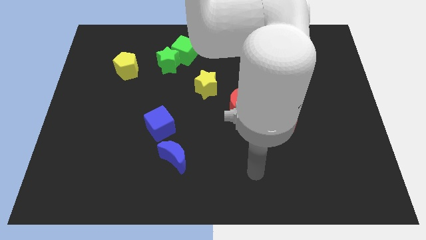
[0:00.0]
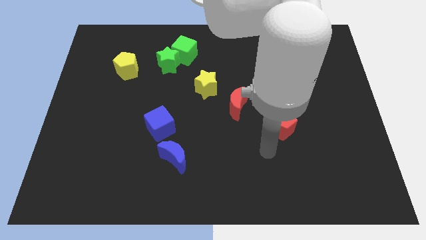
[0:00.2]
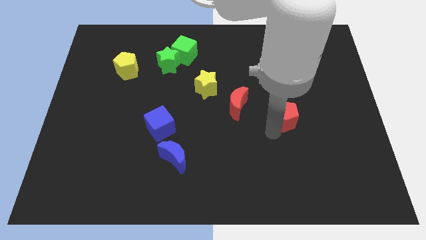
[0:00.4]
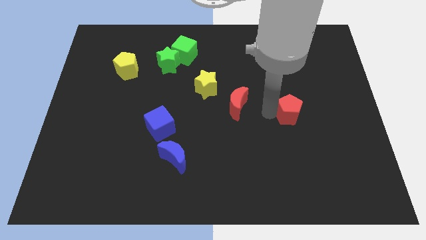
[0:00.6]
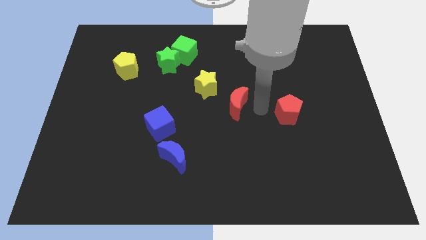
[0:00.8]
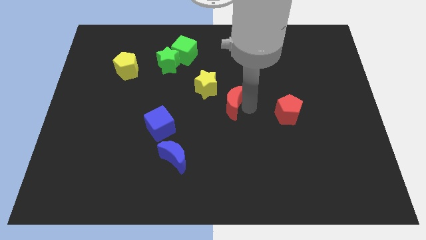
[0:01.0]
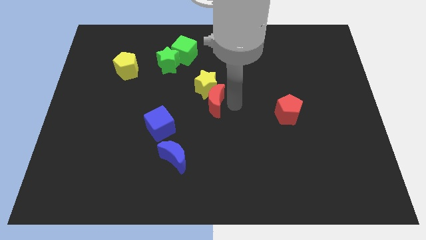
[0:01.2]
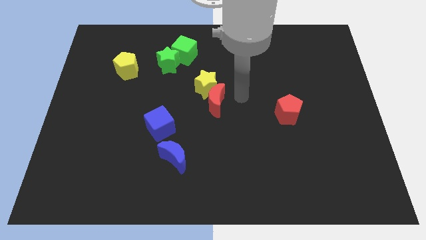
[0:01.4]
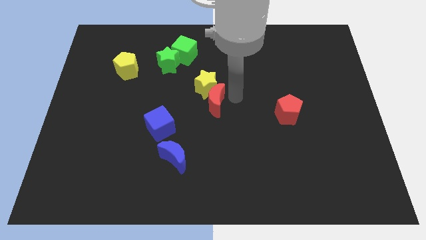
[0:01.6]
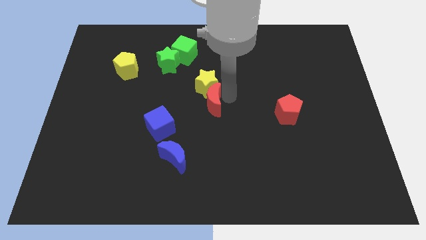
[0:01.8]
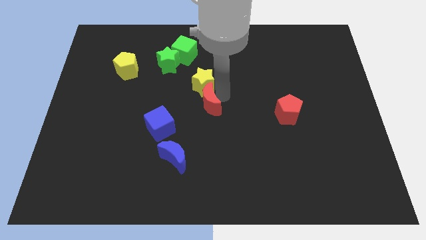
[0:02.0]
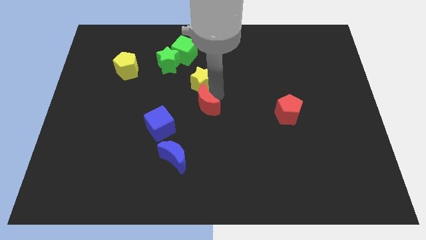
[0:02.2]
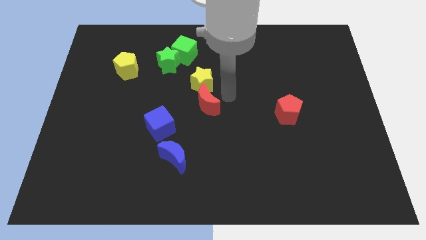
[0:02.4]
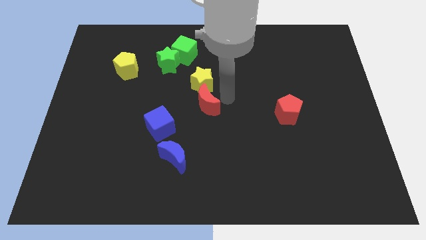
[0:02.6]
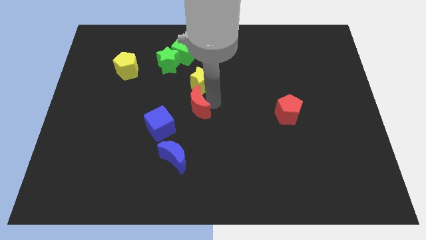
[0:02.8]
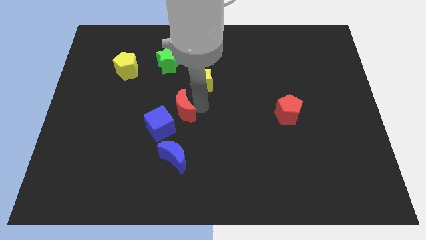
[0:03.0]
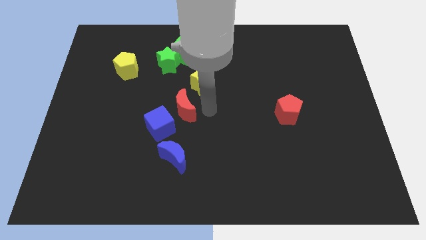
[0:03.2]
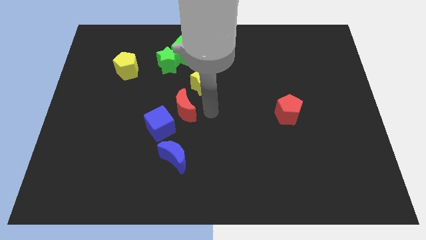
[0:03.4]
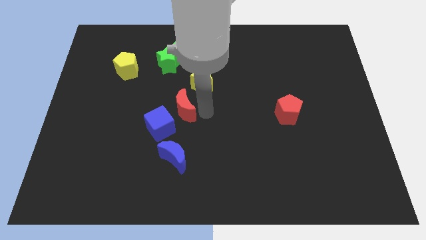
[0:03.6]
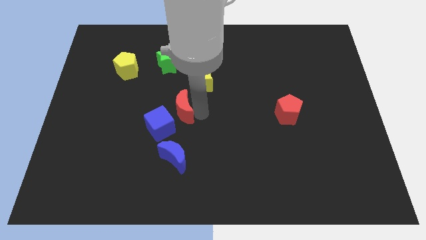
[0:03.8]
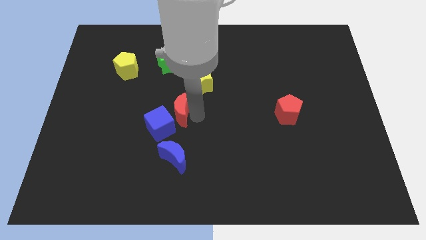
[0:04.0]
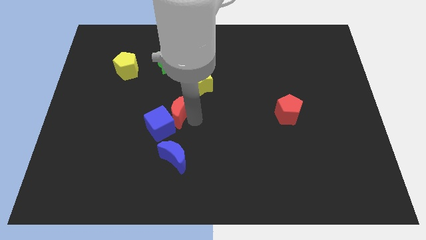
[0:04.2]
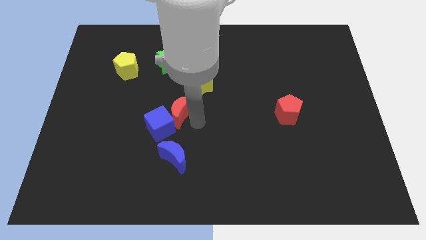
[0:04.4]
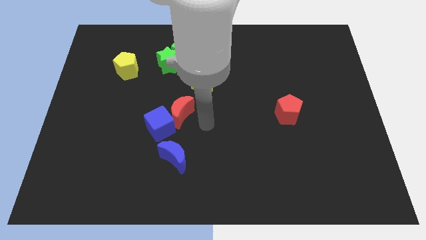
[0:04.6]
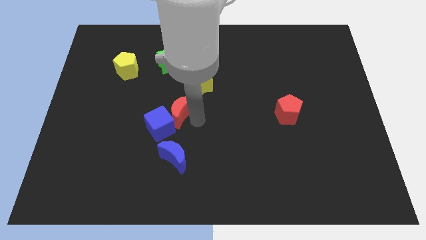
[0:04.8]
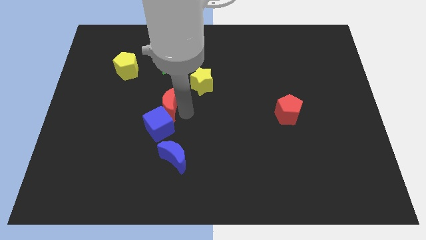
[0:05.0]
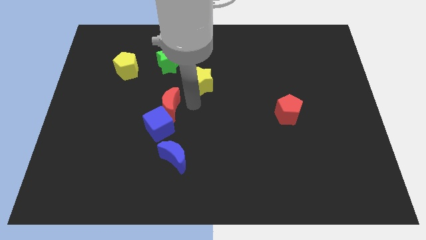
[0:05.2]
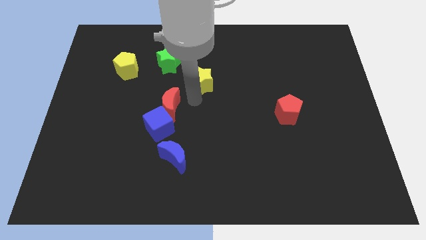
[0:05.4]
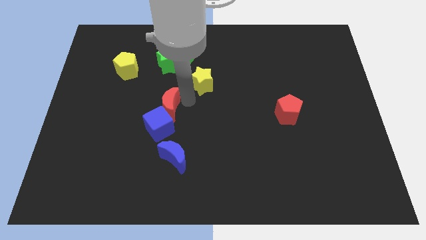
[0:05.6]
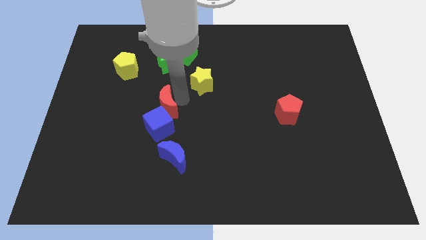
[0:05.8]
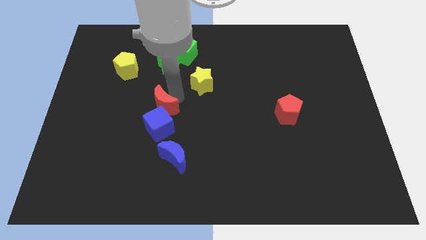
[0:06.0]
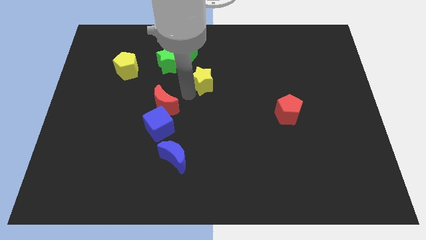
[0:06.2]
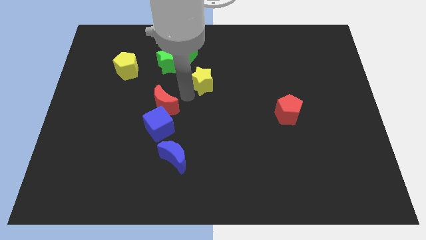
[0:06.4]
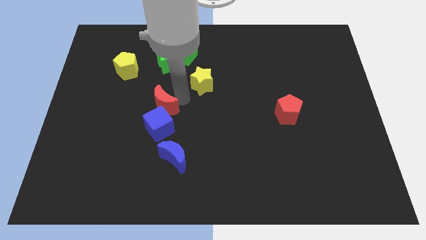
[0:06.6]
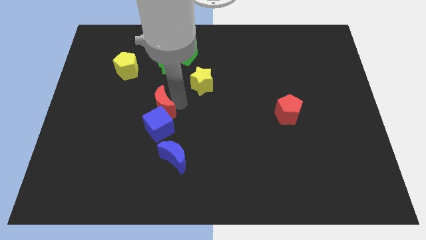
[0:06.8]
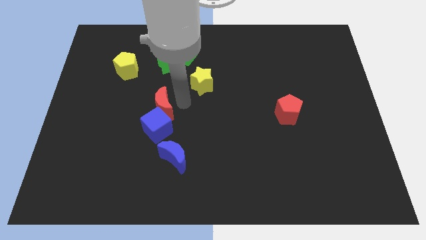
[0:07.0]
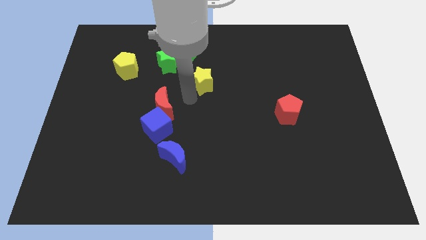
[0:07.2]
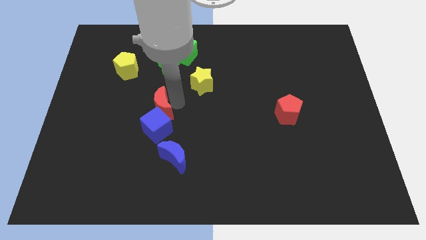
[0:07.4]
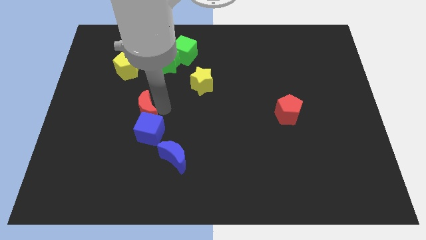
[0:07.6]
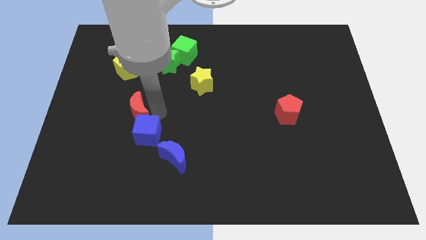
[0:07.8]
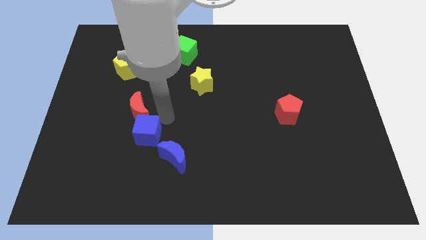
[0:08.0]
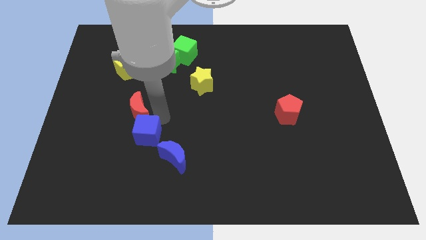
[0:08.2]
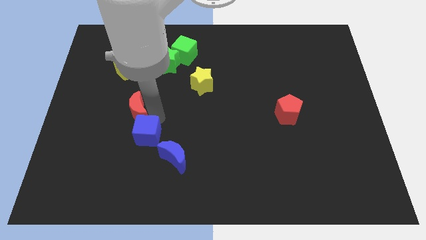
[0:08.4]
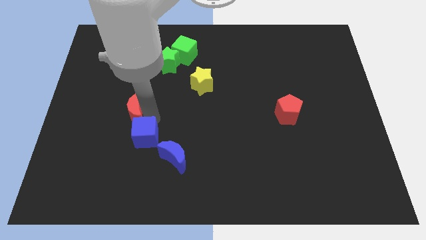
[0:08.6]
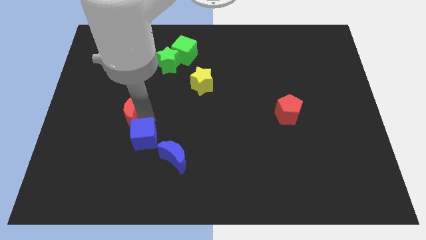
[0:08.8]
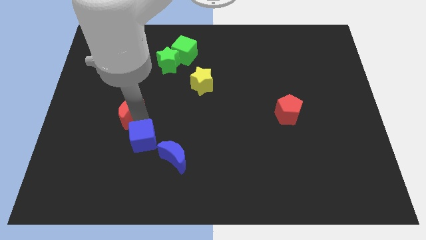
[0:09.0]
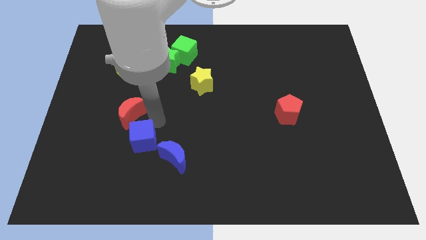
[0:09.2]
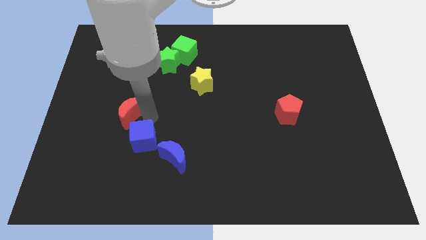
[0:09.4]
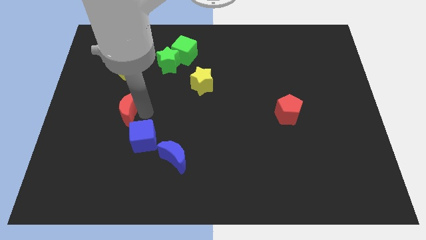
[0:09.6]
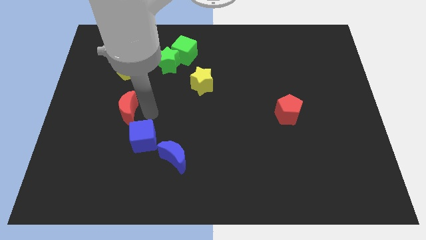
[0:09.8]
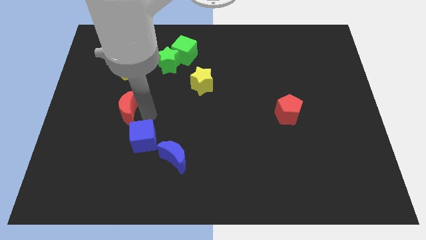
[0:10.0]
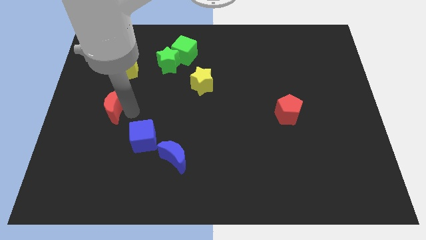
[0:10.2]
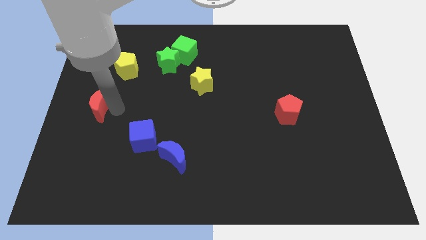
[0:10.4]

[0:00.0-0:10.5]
slide the red moon to the left side

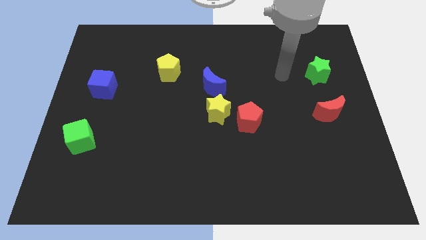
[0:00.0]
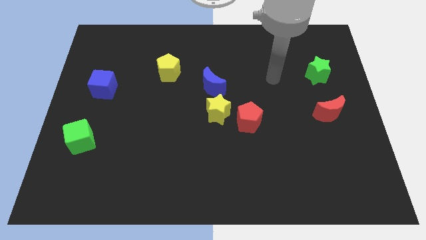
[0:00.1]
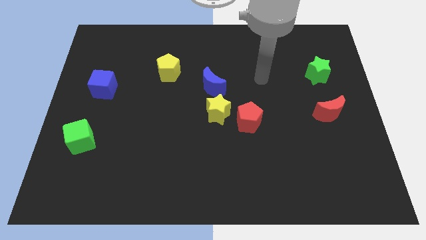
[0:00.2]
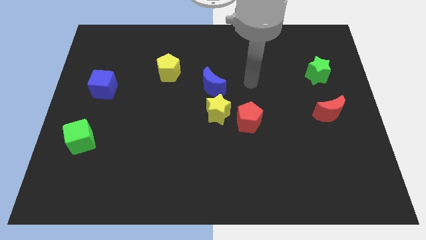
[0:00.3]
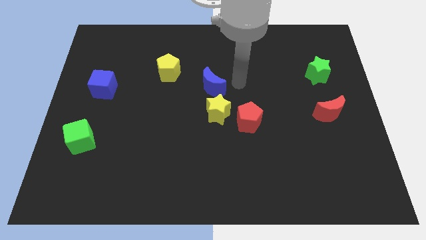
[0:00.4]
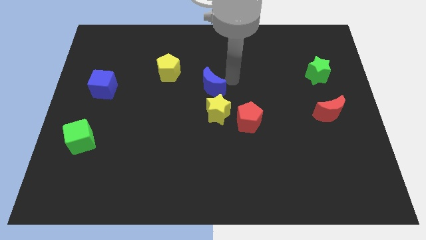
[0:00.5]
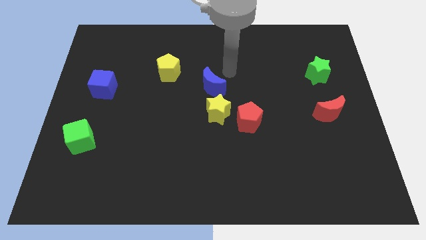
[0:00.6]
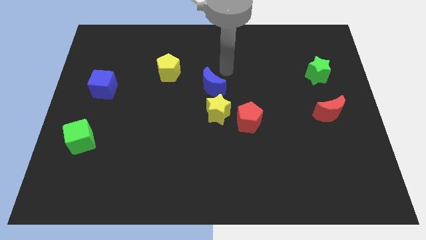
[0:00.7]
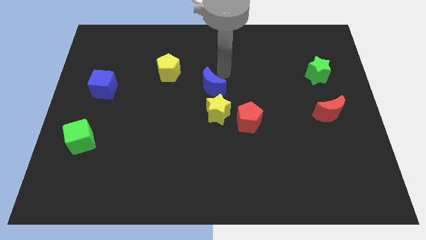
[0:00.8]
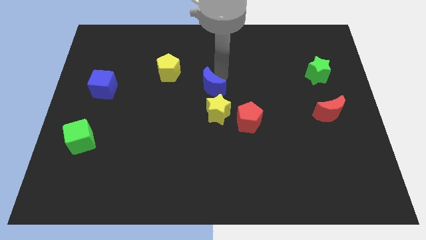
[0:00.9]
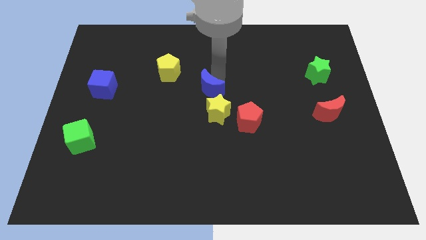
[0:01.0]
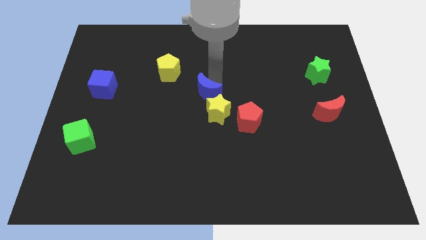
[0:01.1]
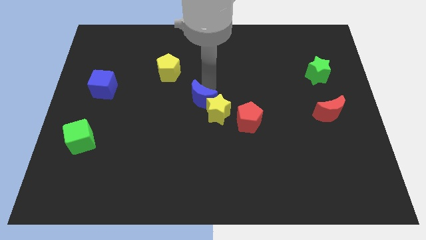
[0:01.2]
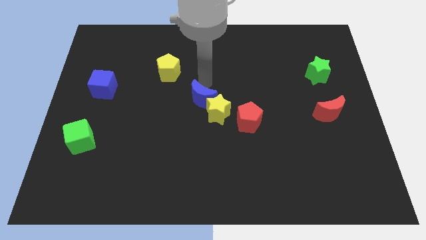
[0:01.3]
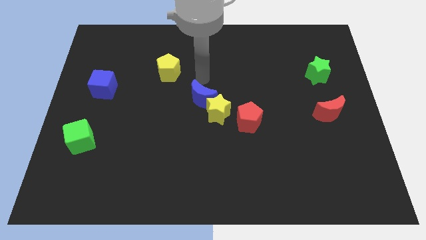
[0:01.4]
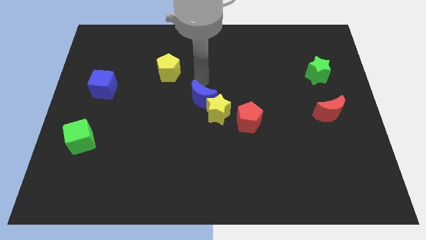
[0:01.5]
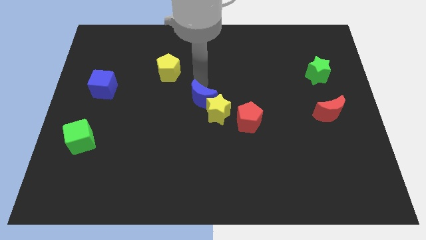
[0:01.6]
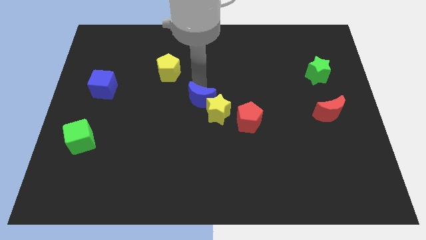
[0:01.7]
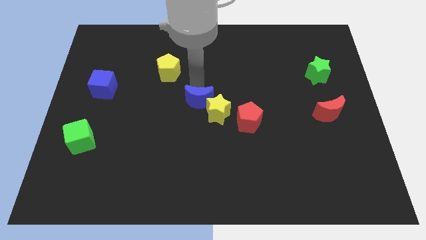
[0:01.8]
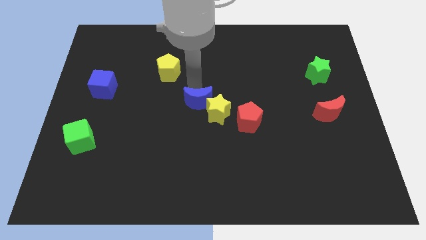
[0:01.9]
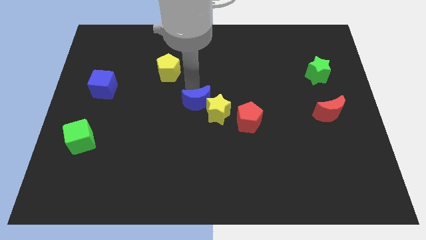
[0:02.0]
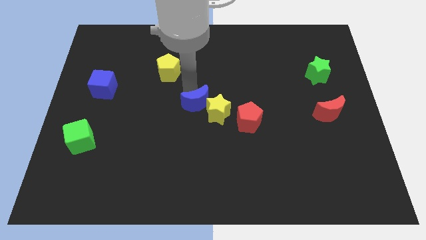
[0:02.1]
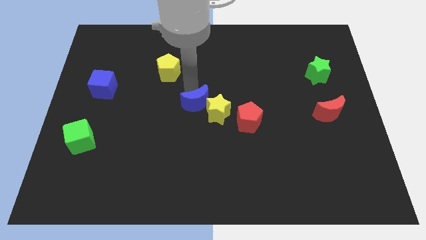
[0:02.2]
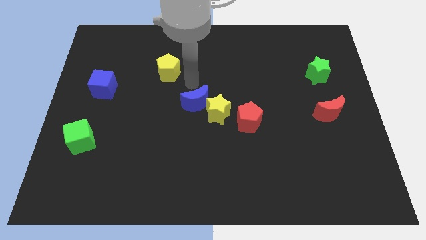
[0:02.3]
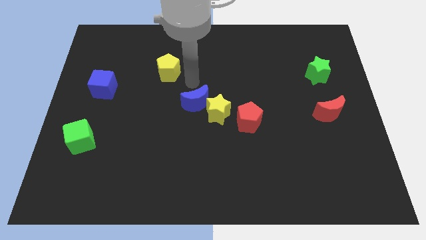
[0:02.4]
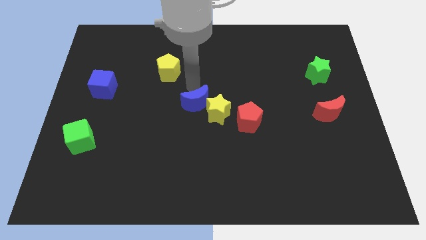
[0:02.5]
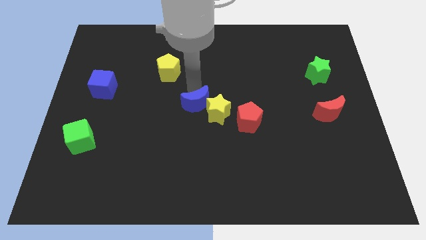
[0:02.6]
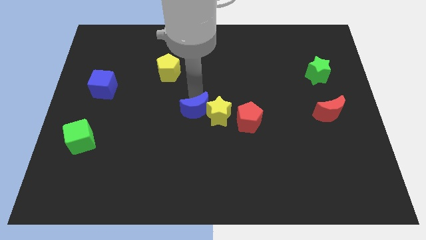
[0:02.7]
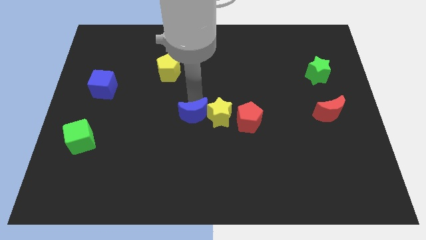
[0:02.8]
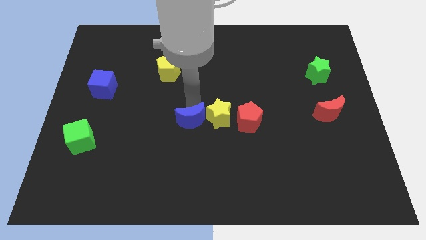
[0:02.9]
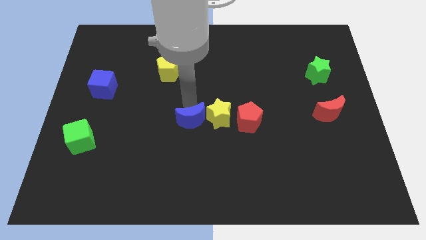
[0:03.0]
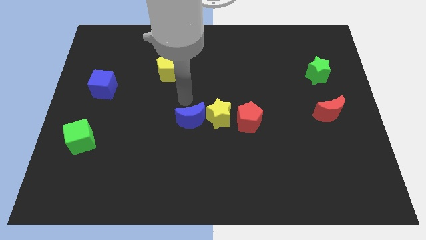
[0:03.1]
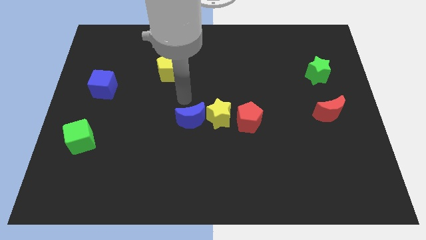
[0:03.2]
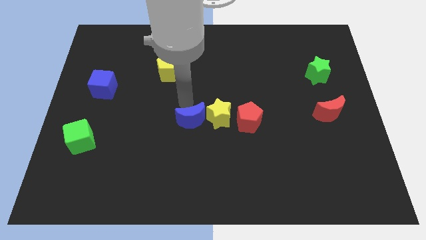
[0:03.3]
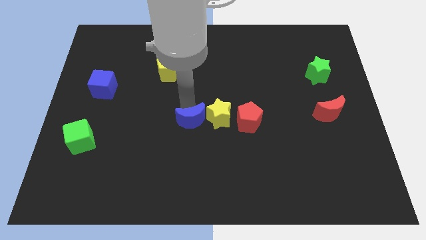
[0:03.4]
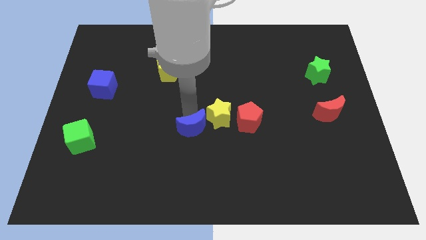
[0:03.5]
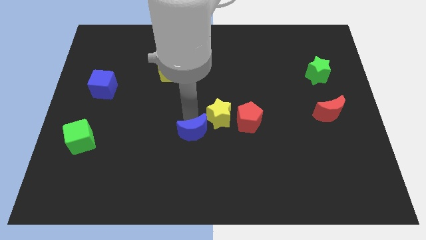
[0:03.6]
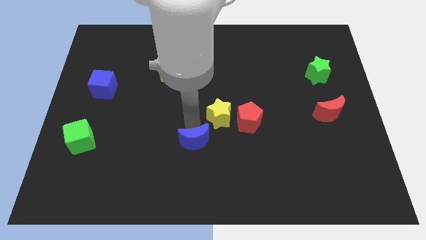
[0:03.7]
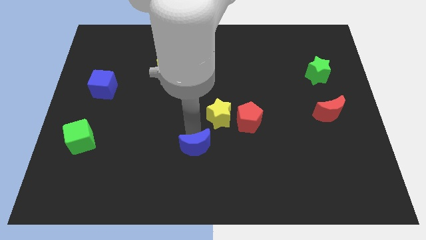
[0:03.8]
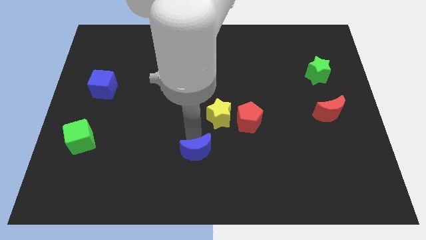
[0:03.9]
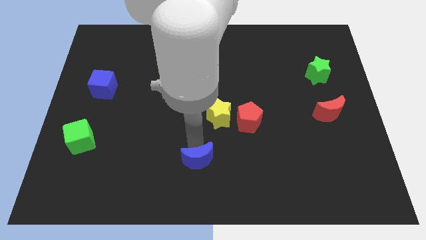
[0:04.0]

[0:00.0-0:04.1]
push the blue moon to the bottom
